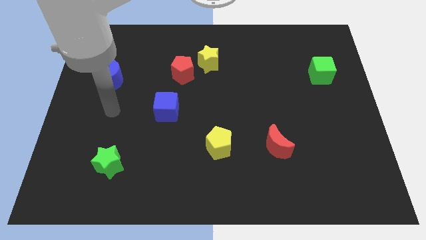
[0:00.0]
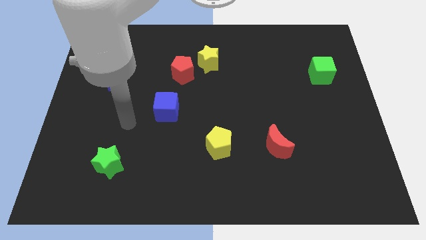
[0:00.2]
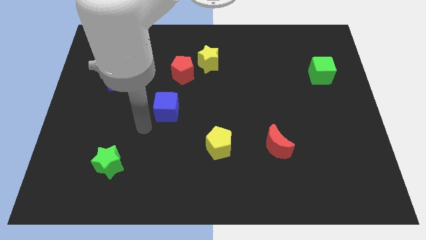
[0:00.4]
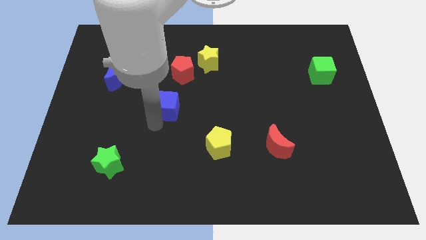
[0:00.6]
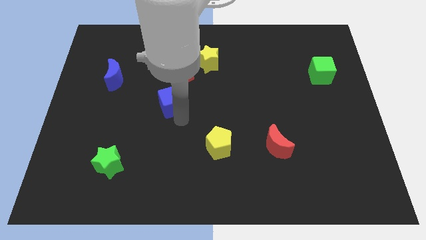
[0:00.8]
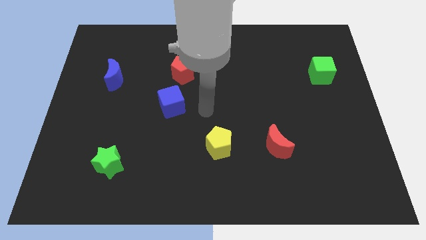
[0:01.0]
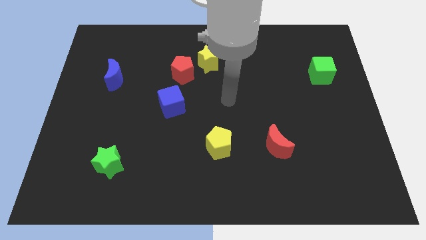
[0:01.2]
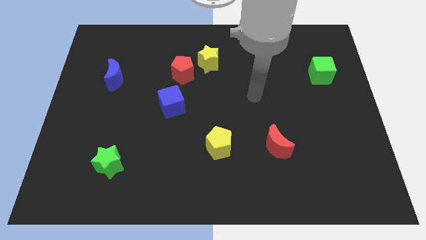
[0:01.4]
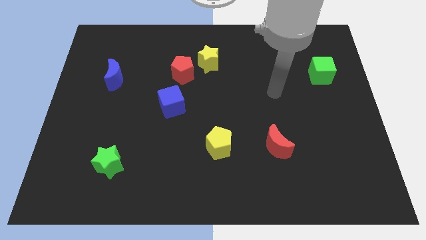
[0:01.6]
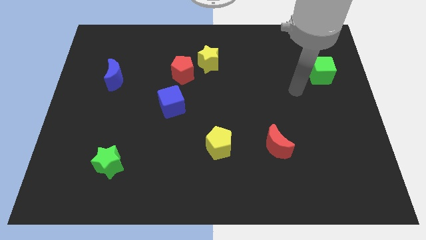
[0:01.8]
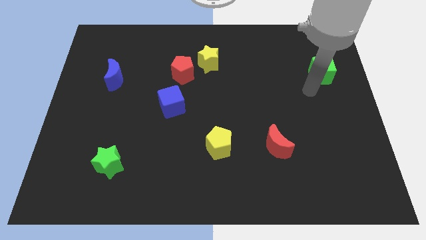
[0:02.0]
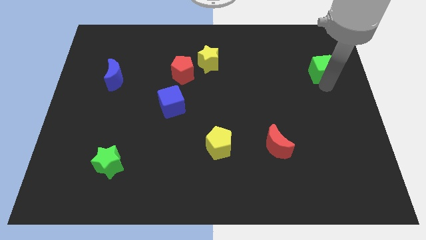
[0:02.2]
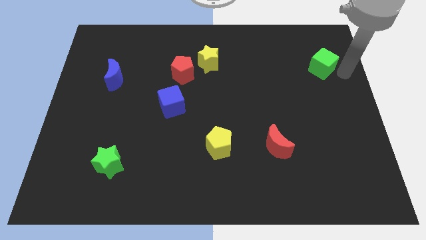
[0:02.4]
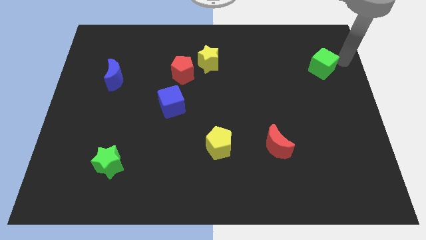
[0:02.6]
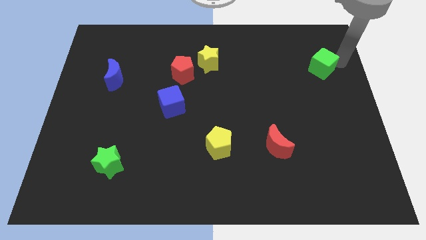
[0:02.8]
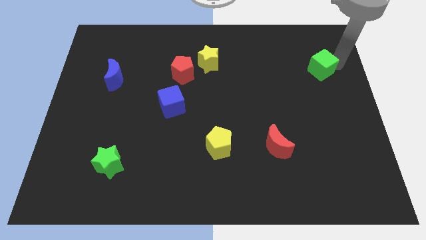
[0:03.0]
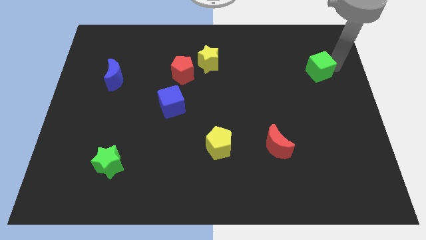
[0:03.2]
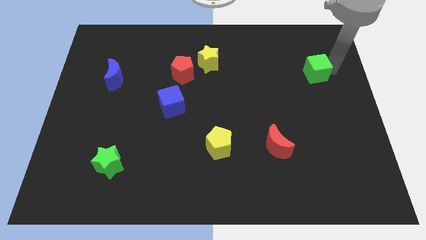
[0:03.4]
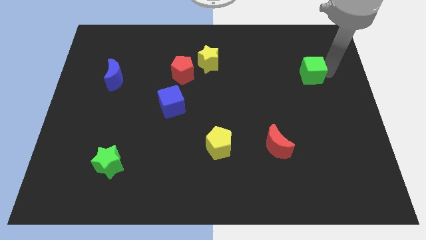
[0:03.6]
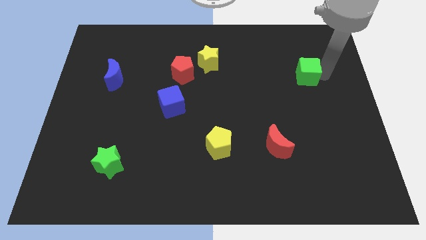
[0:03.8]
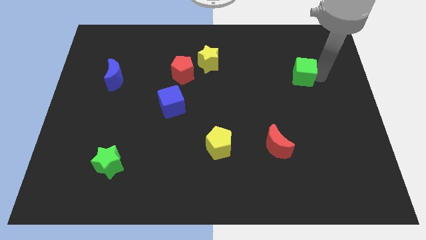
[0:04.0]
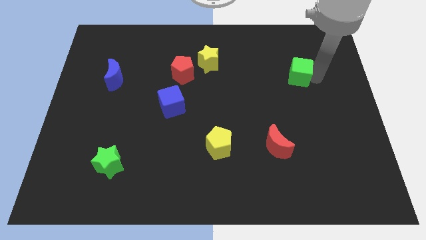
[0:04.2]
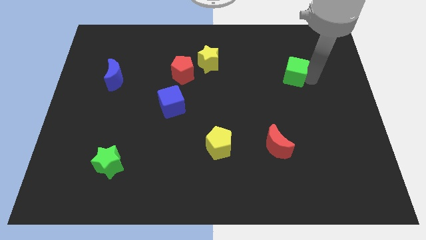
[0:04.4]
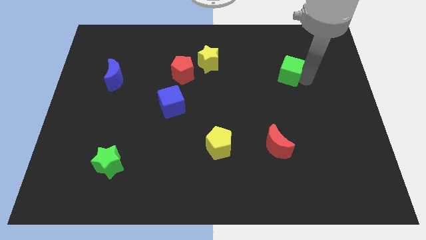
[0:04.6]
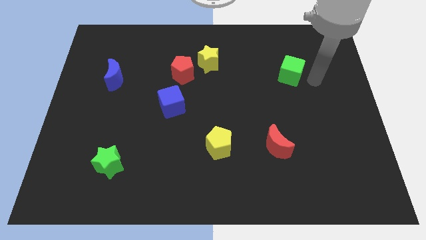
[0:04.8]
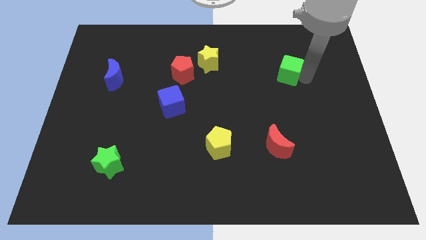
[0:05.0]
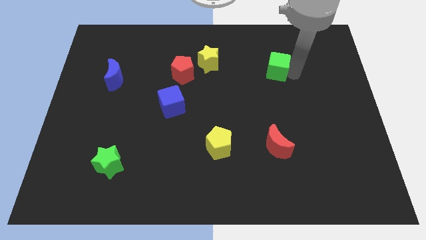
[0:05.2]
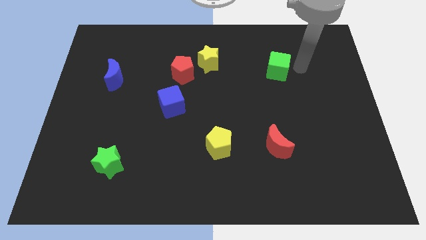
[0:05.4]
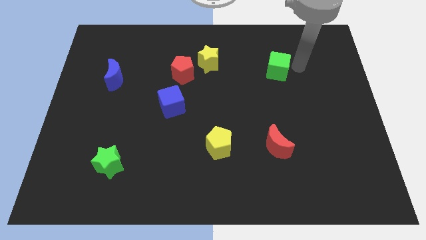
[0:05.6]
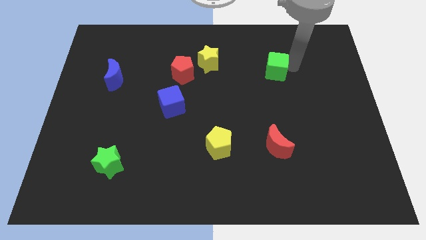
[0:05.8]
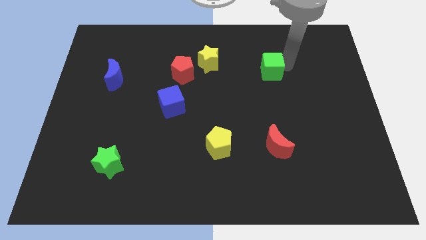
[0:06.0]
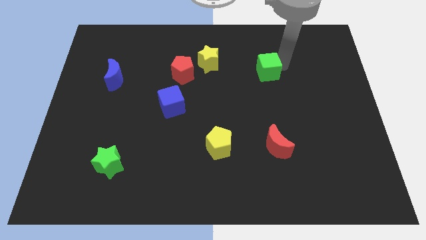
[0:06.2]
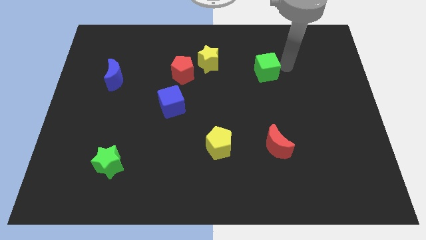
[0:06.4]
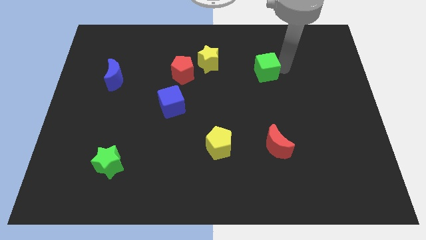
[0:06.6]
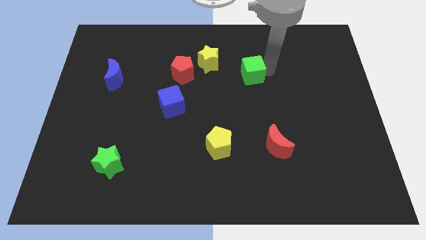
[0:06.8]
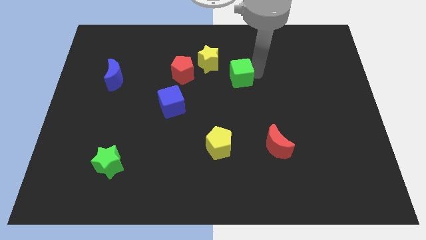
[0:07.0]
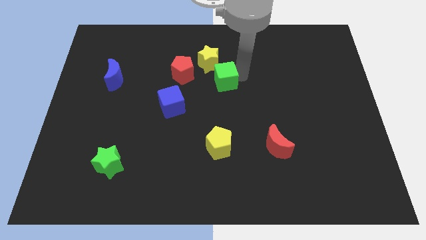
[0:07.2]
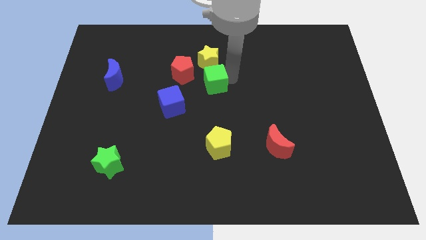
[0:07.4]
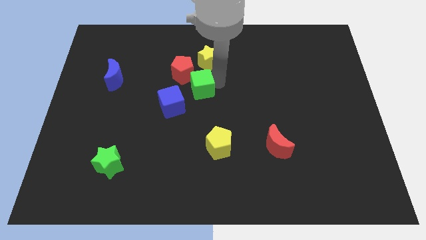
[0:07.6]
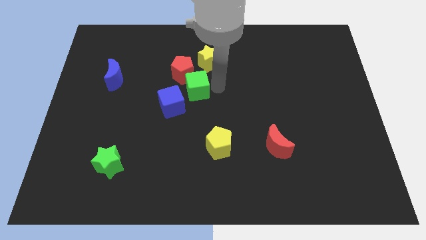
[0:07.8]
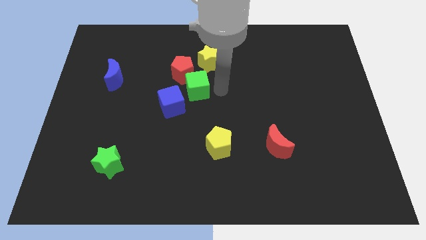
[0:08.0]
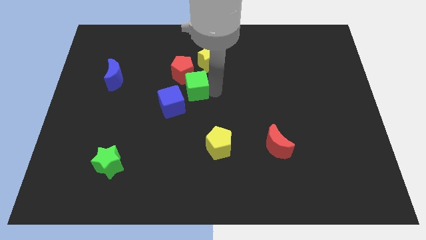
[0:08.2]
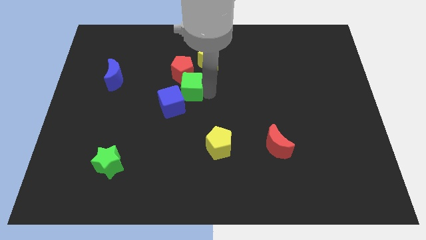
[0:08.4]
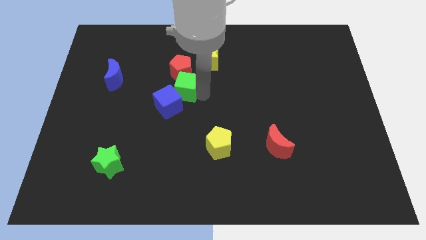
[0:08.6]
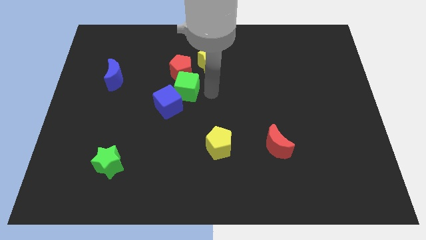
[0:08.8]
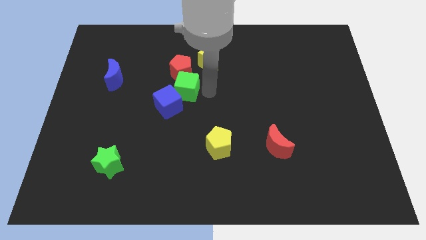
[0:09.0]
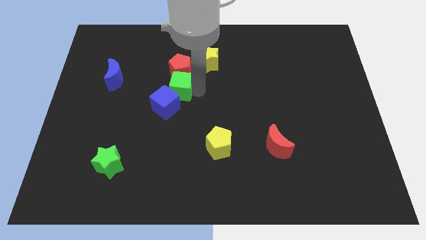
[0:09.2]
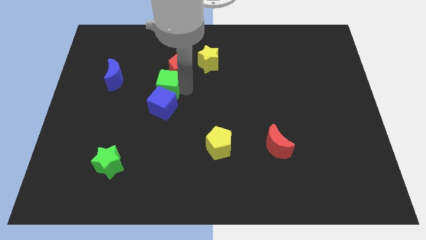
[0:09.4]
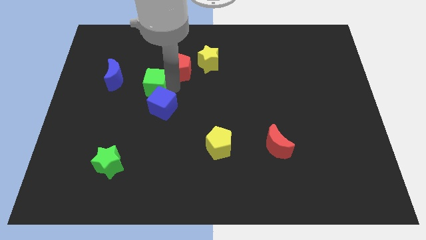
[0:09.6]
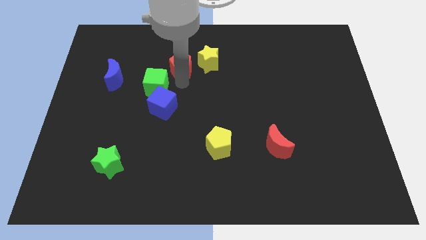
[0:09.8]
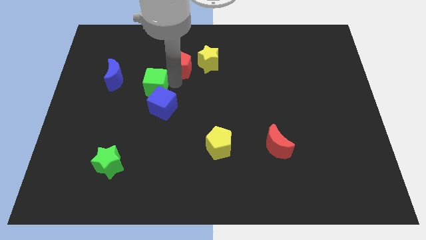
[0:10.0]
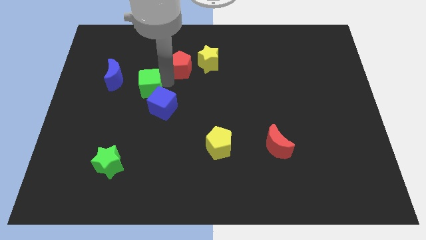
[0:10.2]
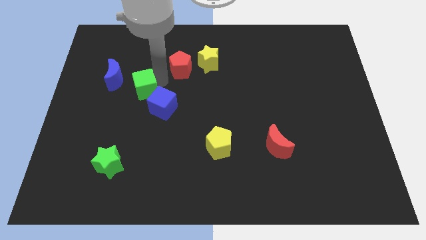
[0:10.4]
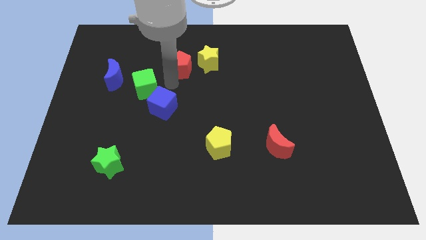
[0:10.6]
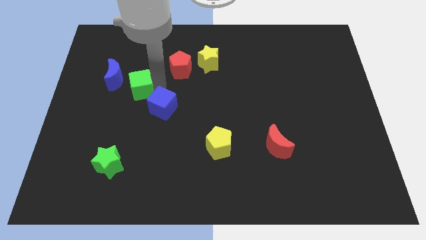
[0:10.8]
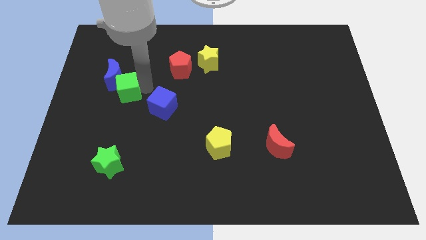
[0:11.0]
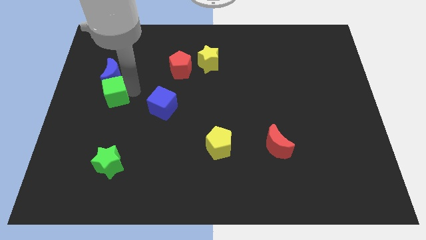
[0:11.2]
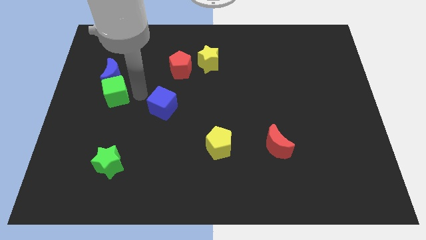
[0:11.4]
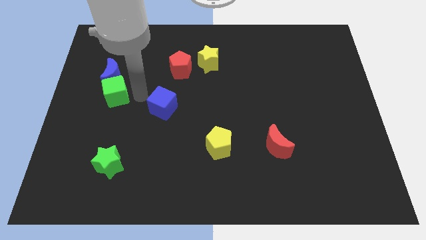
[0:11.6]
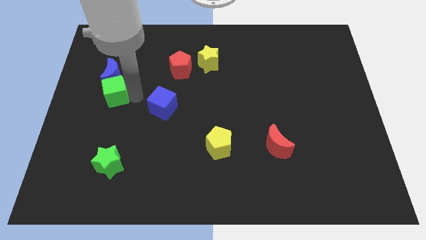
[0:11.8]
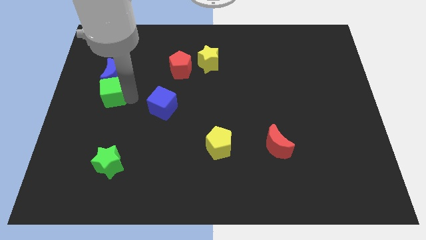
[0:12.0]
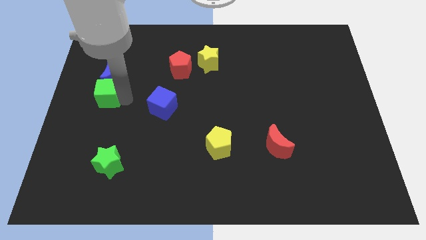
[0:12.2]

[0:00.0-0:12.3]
push the green cube to the left side of the board
